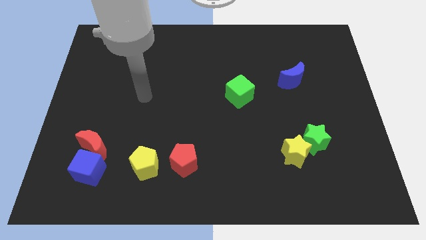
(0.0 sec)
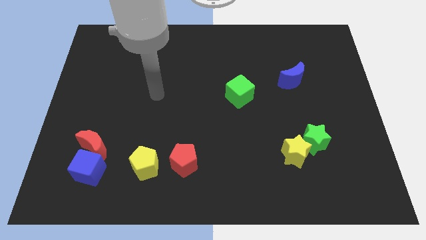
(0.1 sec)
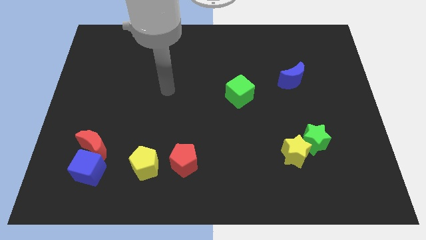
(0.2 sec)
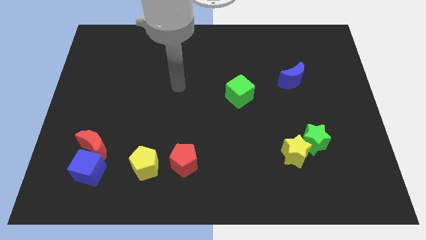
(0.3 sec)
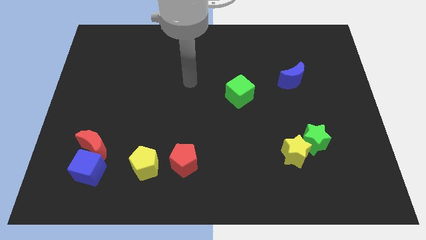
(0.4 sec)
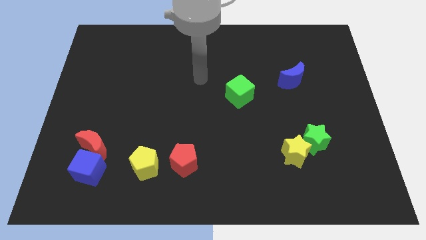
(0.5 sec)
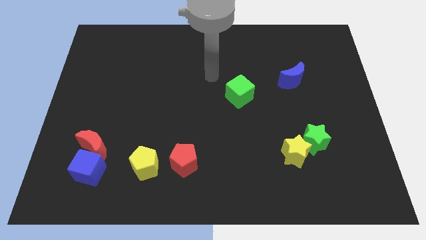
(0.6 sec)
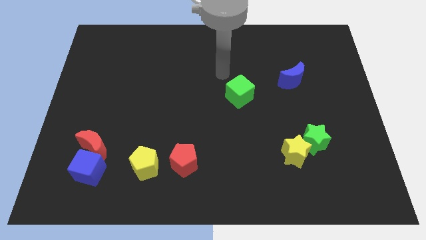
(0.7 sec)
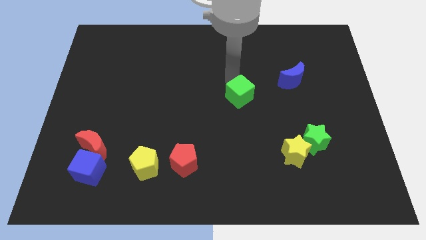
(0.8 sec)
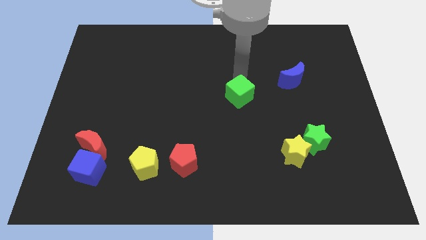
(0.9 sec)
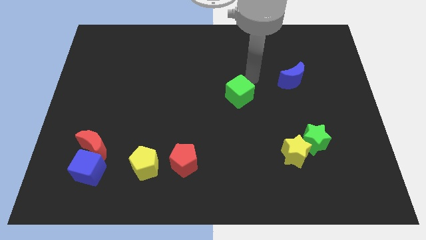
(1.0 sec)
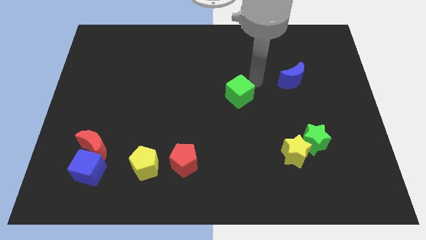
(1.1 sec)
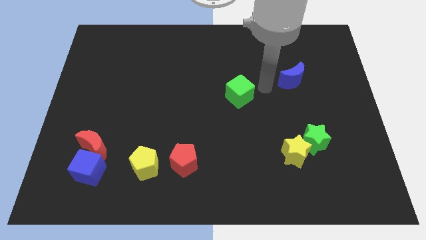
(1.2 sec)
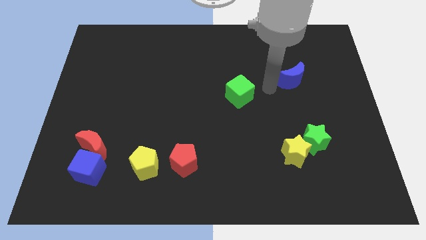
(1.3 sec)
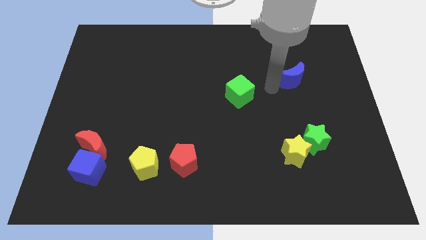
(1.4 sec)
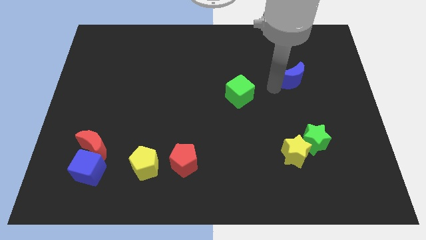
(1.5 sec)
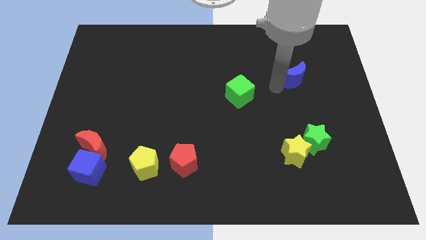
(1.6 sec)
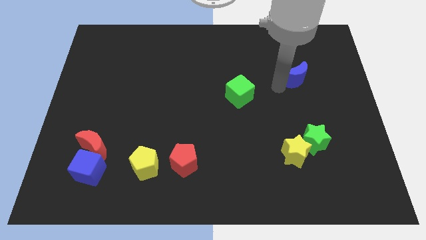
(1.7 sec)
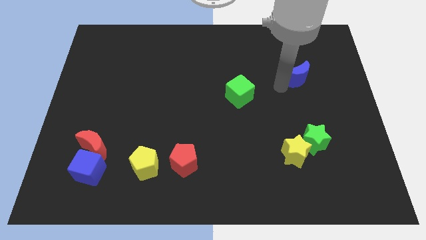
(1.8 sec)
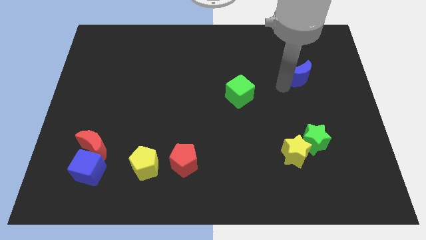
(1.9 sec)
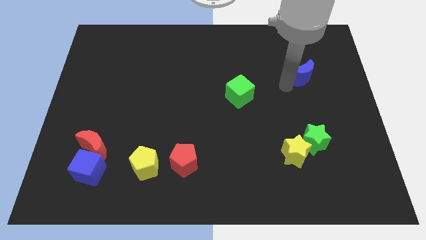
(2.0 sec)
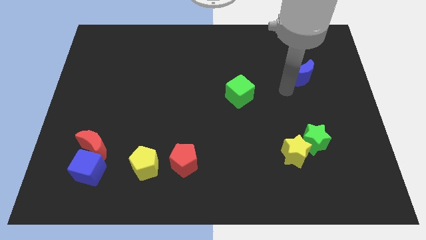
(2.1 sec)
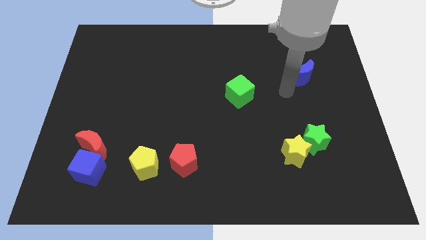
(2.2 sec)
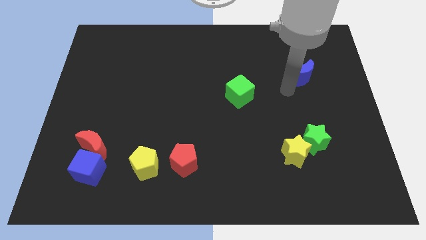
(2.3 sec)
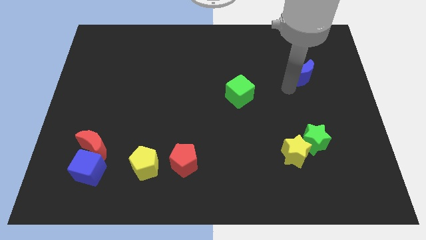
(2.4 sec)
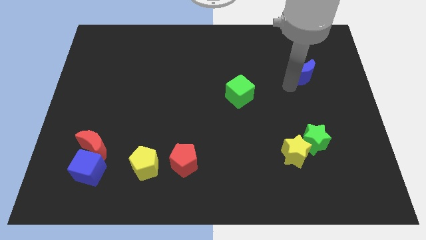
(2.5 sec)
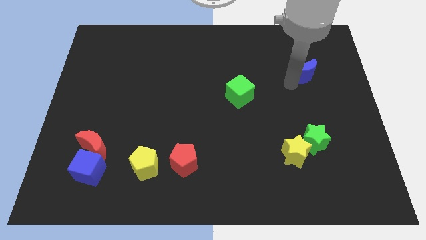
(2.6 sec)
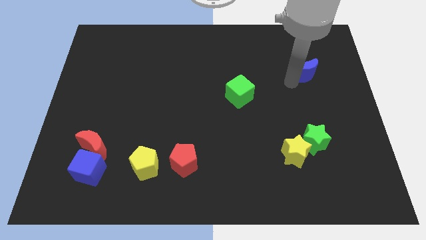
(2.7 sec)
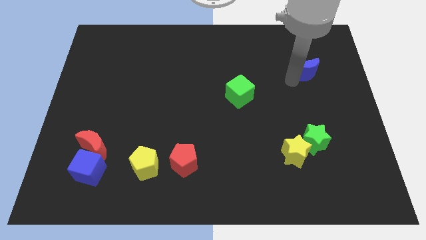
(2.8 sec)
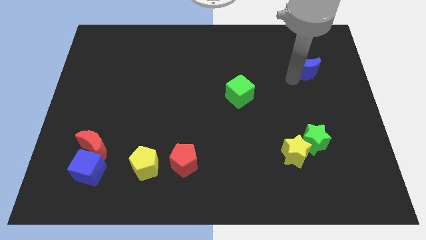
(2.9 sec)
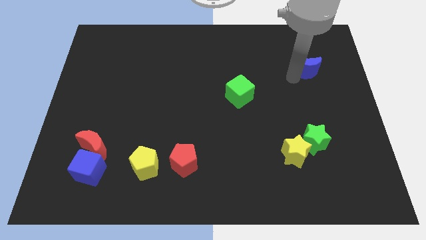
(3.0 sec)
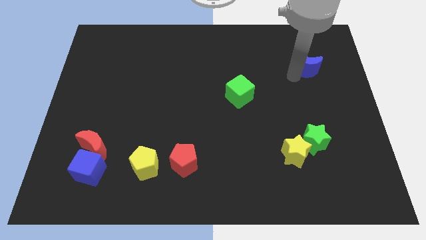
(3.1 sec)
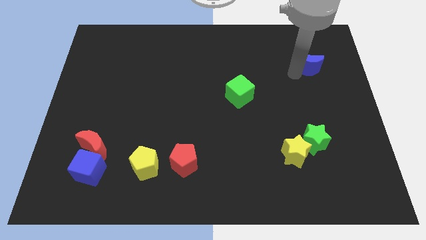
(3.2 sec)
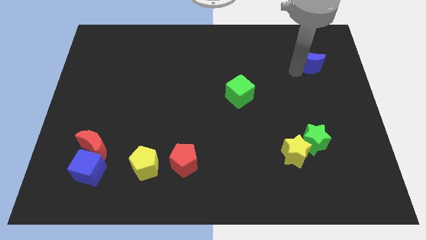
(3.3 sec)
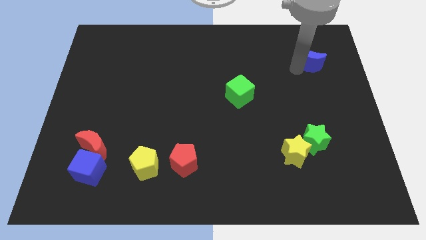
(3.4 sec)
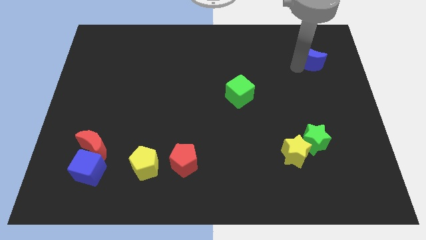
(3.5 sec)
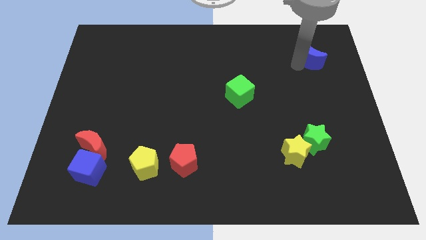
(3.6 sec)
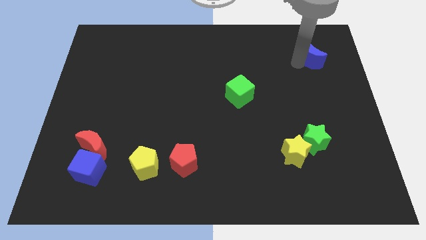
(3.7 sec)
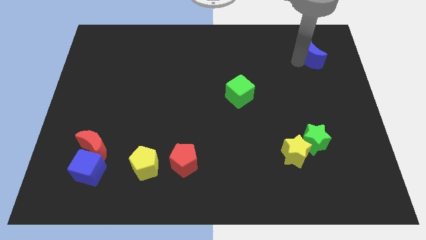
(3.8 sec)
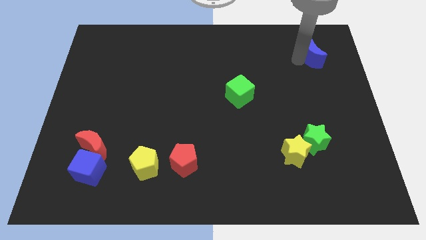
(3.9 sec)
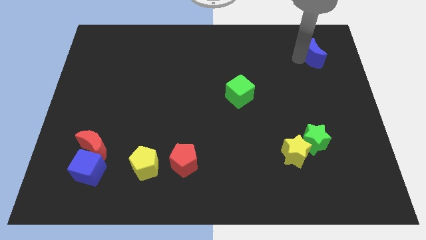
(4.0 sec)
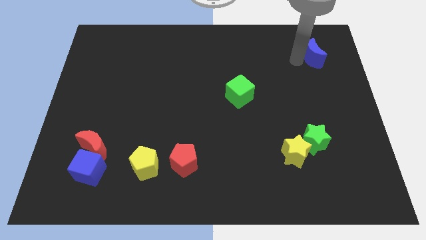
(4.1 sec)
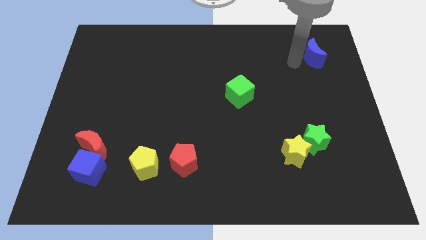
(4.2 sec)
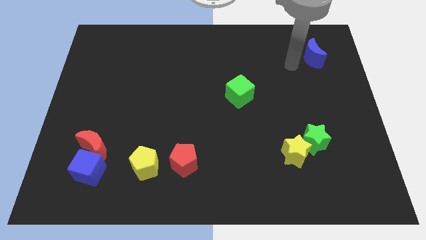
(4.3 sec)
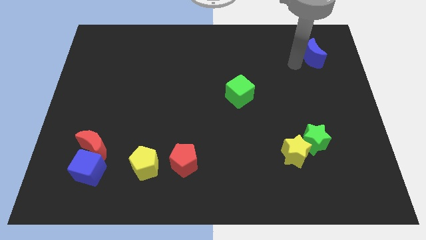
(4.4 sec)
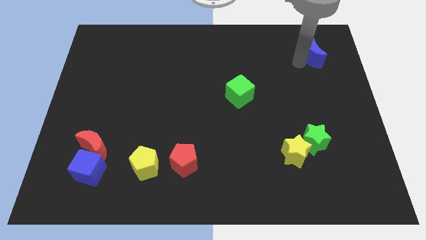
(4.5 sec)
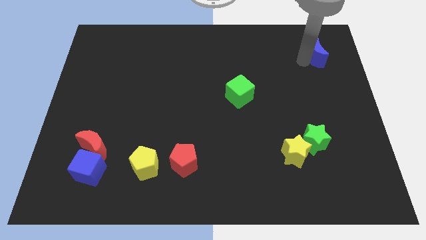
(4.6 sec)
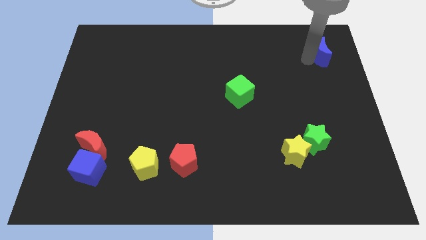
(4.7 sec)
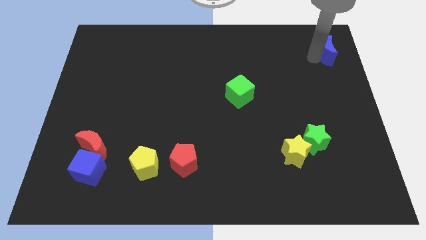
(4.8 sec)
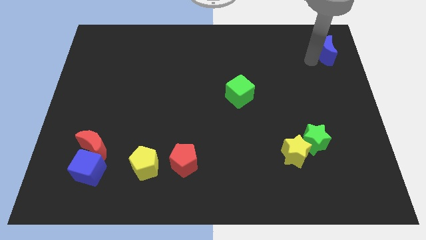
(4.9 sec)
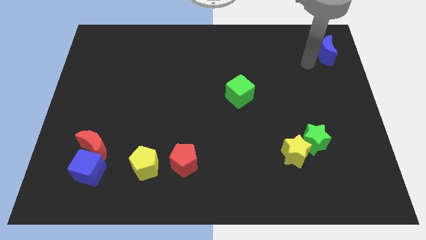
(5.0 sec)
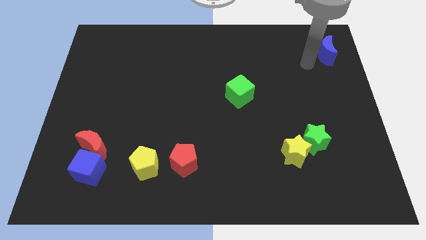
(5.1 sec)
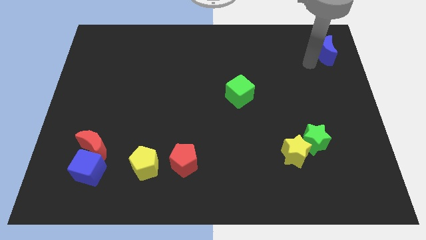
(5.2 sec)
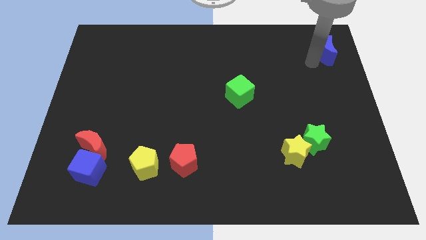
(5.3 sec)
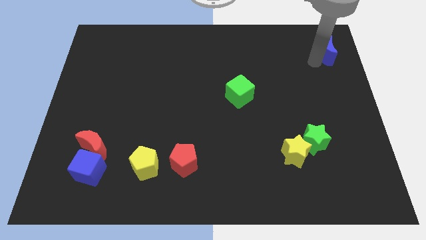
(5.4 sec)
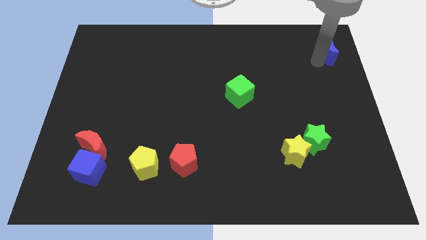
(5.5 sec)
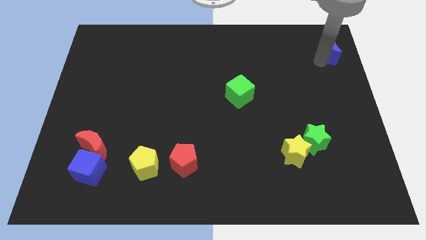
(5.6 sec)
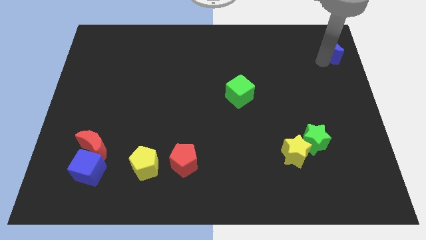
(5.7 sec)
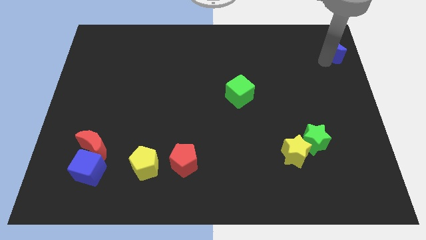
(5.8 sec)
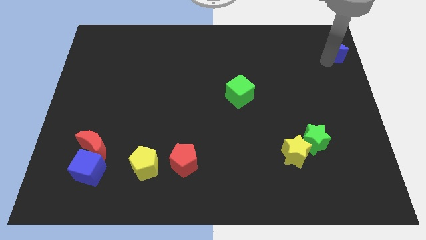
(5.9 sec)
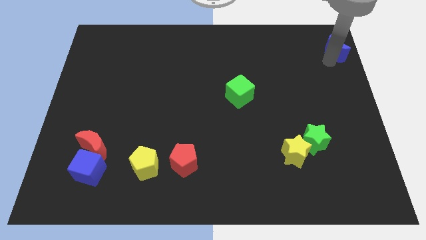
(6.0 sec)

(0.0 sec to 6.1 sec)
push the blue moon to the top right

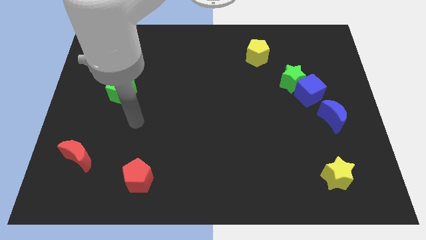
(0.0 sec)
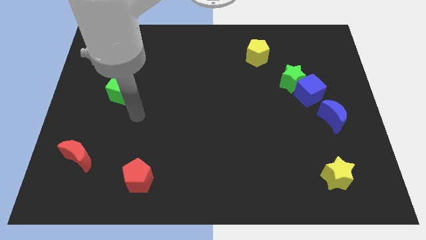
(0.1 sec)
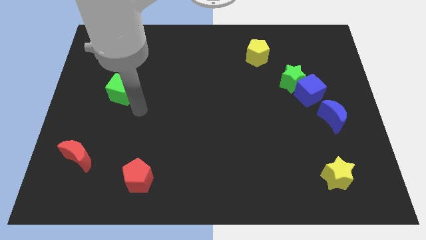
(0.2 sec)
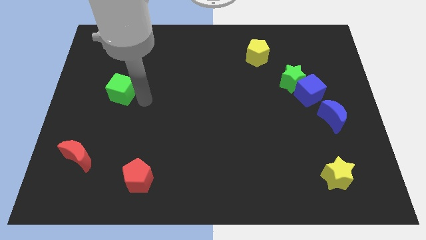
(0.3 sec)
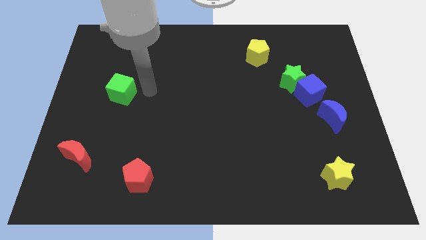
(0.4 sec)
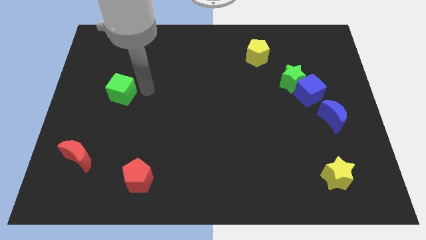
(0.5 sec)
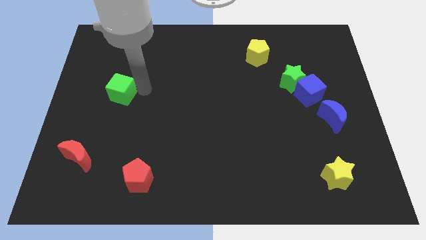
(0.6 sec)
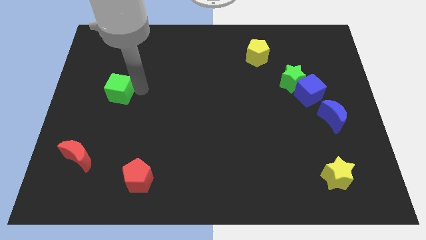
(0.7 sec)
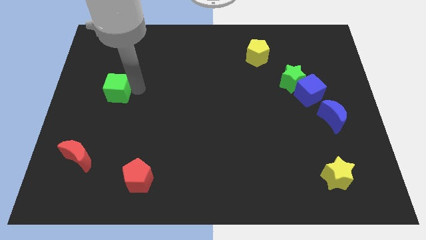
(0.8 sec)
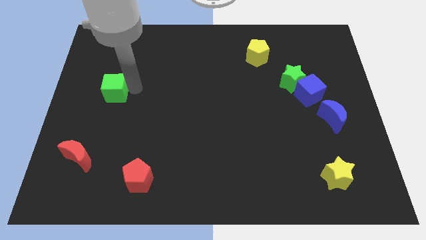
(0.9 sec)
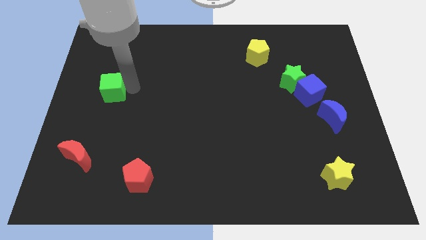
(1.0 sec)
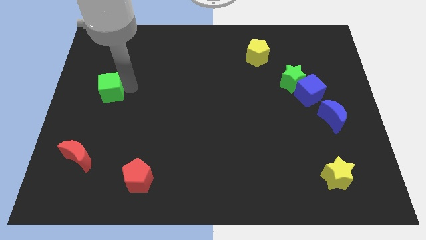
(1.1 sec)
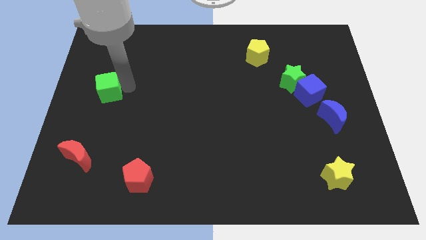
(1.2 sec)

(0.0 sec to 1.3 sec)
slide the green cube to the center left
